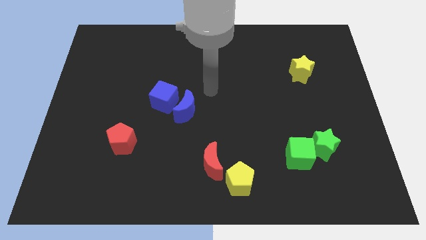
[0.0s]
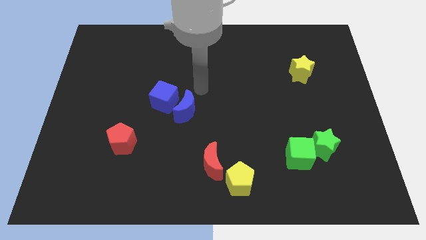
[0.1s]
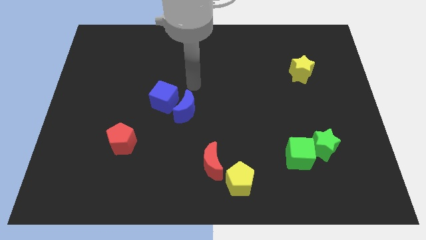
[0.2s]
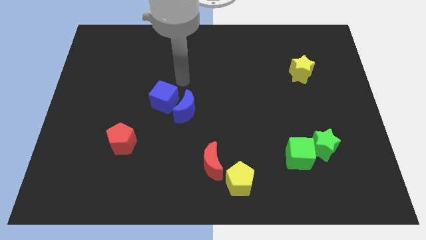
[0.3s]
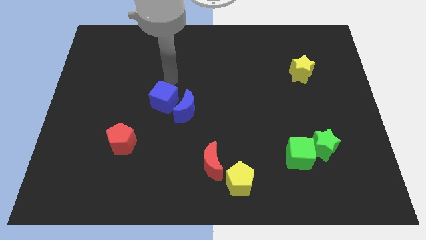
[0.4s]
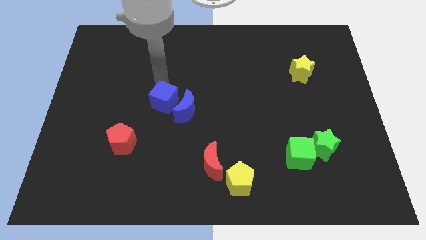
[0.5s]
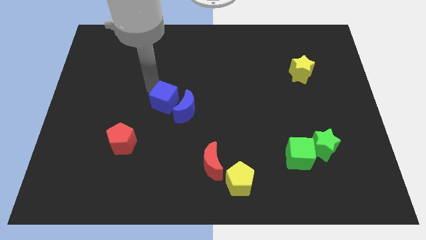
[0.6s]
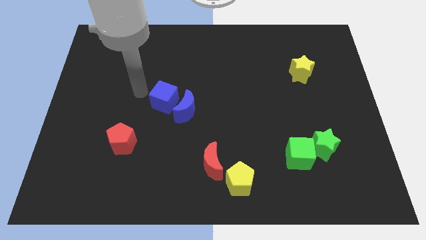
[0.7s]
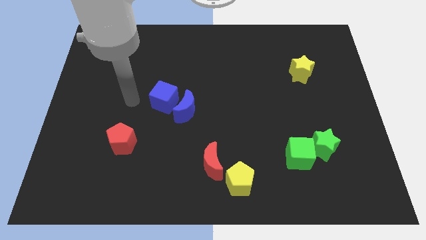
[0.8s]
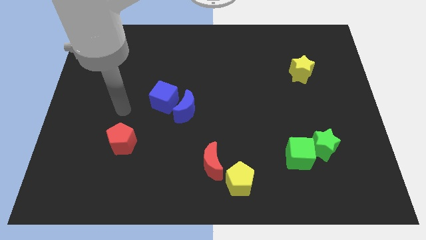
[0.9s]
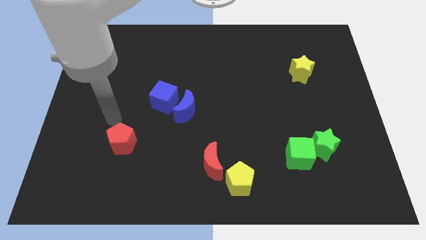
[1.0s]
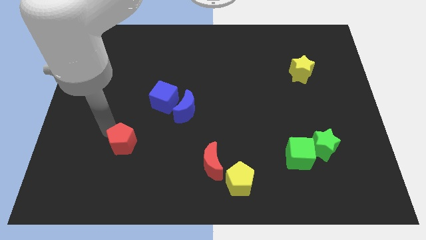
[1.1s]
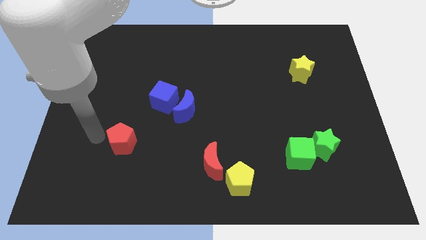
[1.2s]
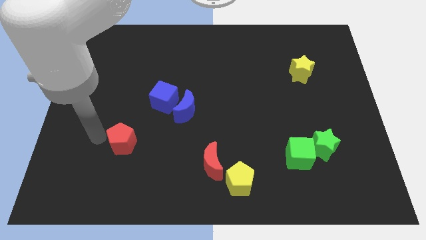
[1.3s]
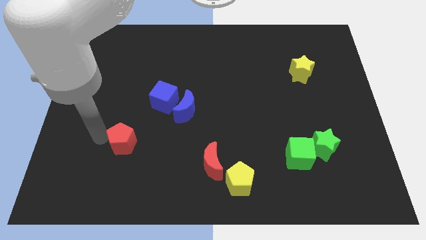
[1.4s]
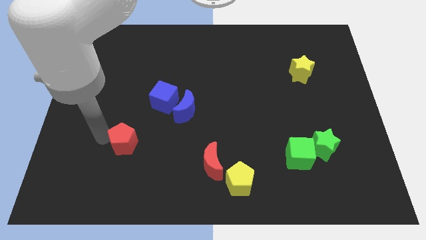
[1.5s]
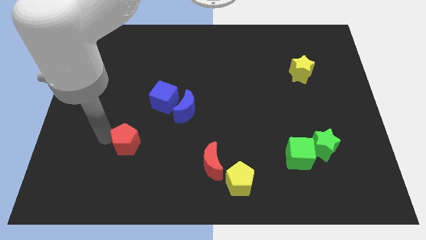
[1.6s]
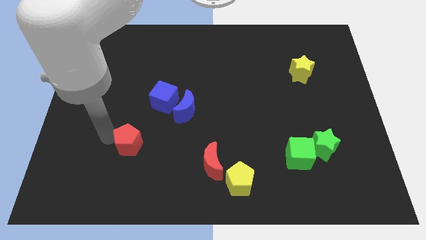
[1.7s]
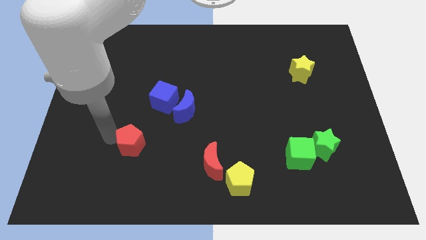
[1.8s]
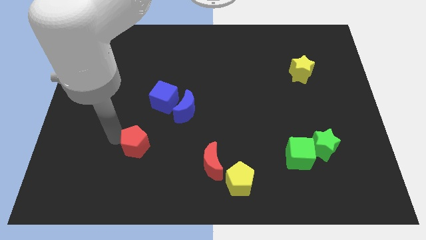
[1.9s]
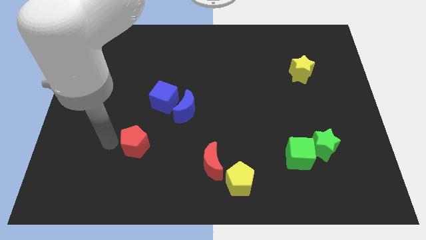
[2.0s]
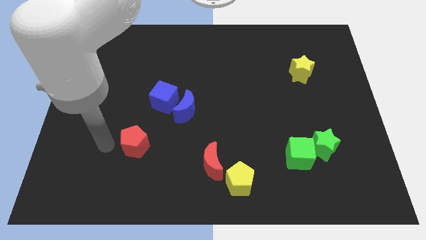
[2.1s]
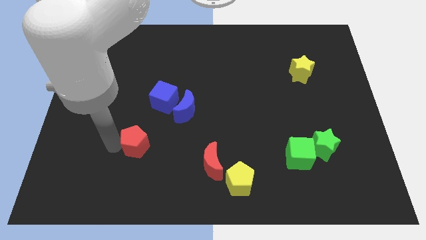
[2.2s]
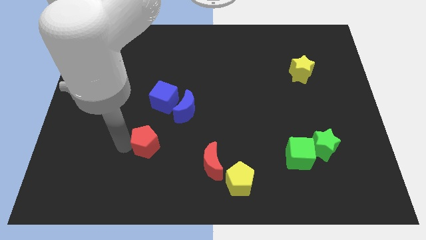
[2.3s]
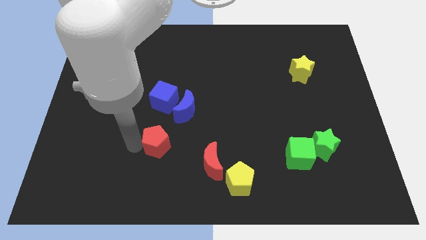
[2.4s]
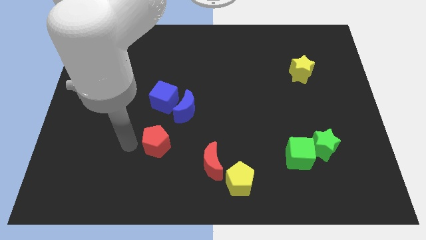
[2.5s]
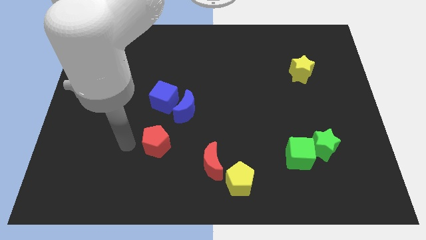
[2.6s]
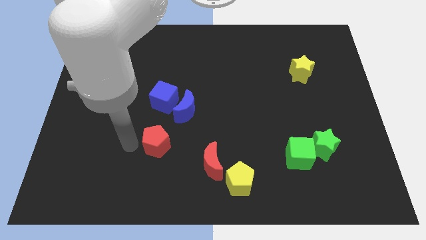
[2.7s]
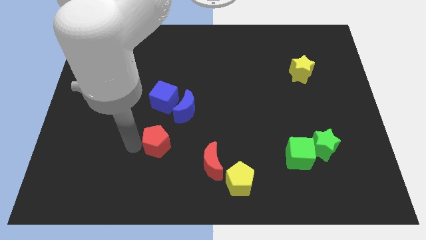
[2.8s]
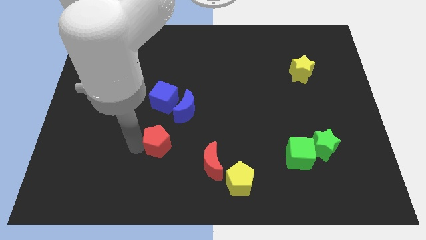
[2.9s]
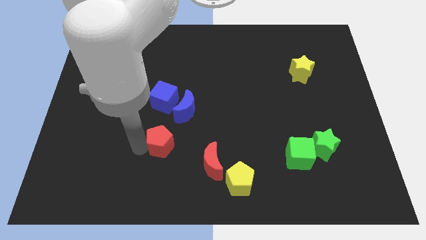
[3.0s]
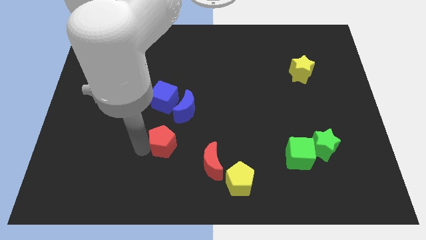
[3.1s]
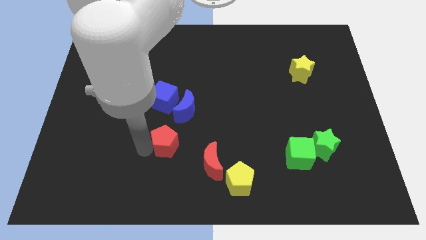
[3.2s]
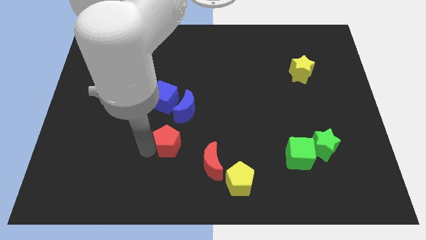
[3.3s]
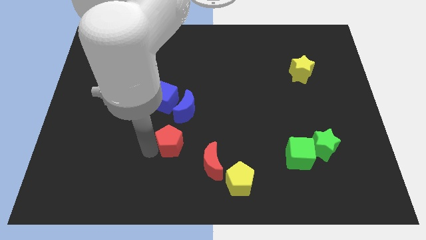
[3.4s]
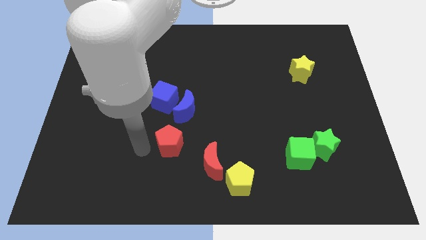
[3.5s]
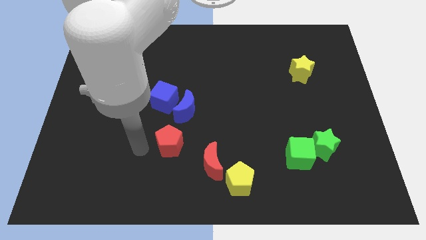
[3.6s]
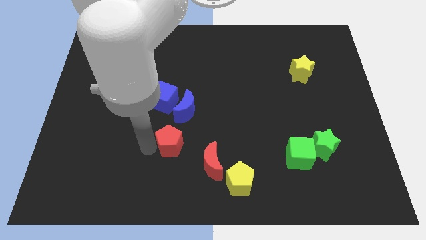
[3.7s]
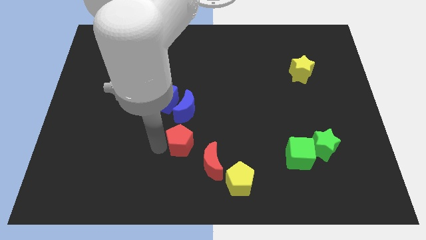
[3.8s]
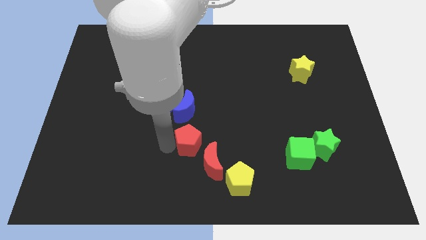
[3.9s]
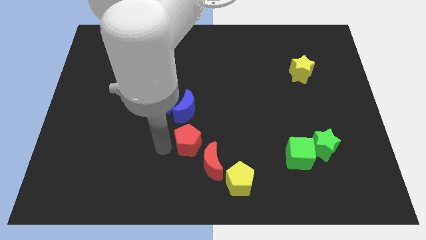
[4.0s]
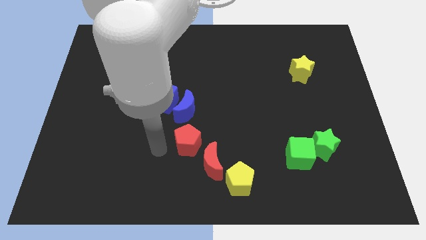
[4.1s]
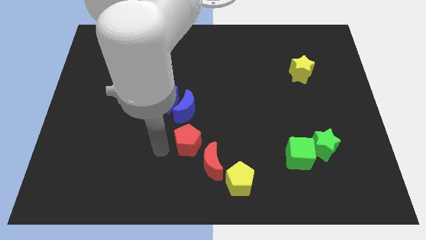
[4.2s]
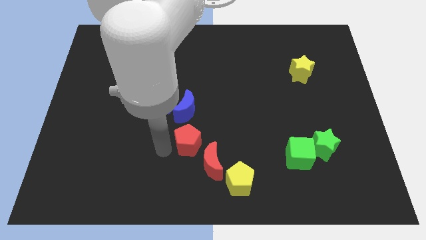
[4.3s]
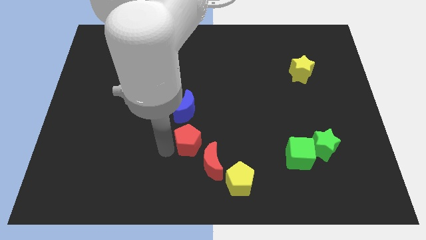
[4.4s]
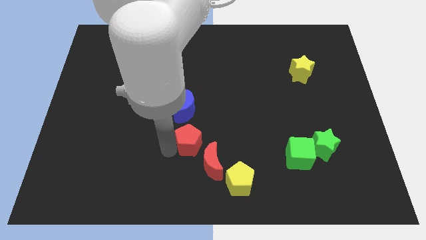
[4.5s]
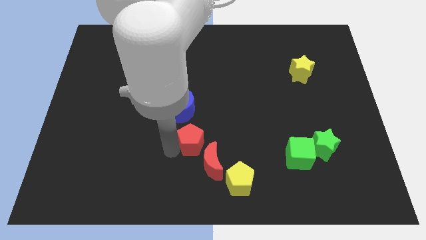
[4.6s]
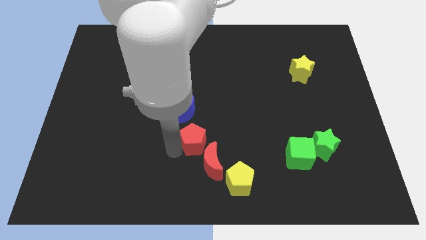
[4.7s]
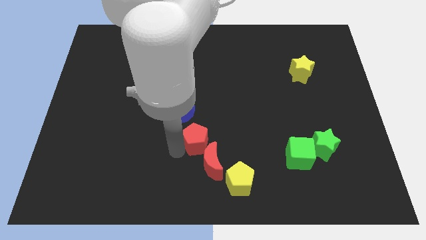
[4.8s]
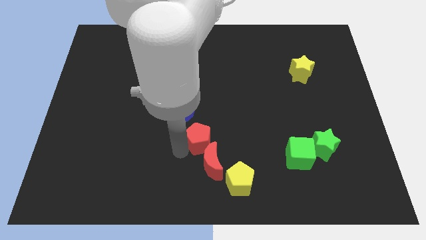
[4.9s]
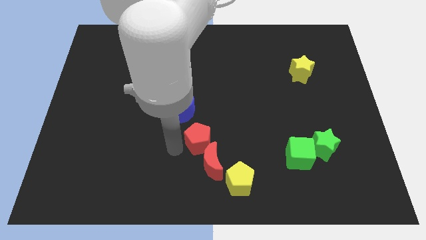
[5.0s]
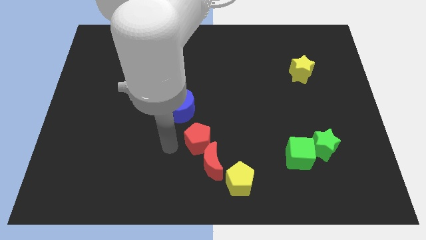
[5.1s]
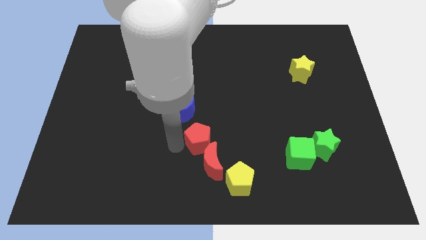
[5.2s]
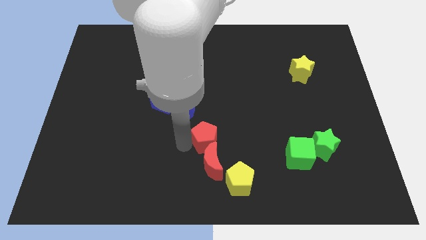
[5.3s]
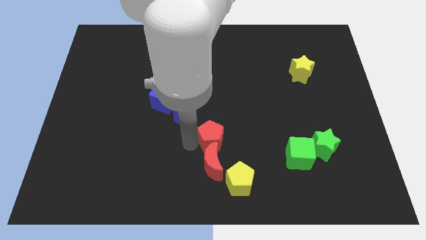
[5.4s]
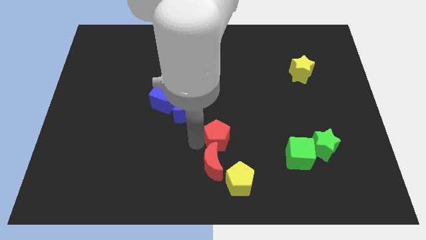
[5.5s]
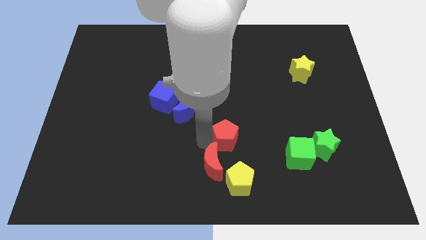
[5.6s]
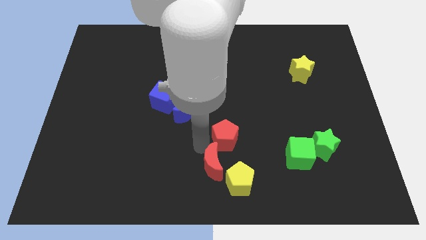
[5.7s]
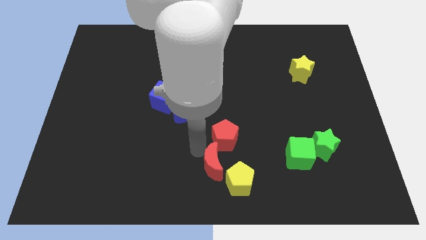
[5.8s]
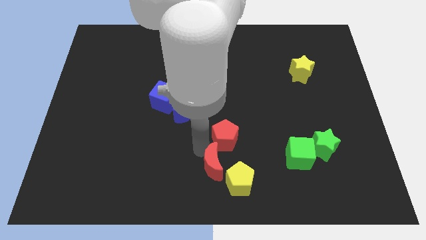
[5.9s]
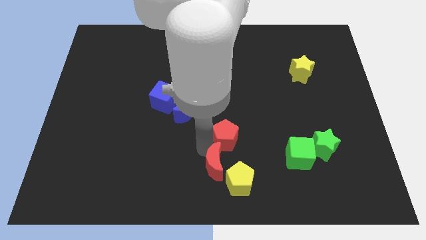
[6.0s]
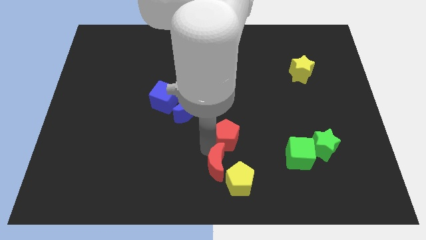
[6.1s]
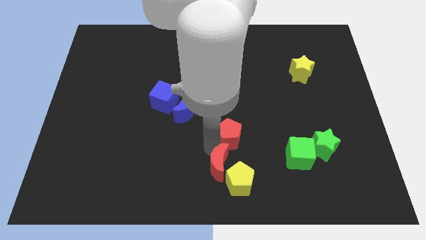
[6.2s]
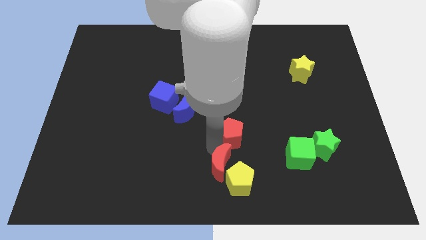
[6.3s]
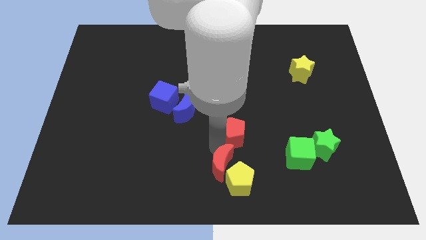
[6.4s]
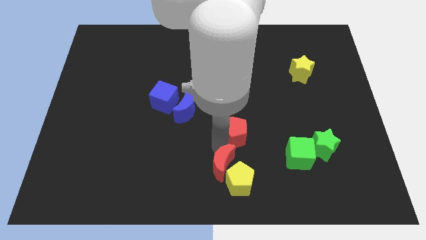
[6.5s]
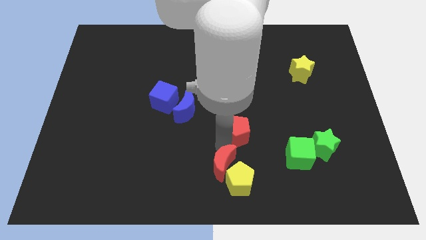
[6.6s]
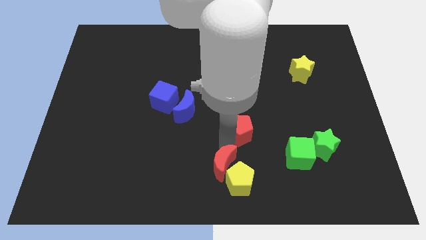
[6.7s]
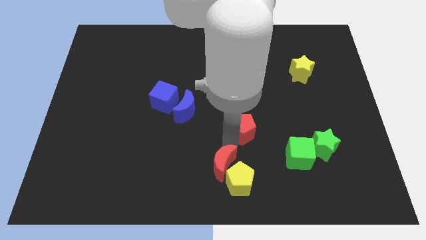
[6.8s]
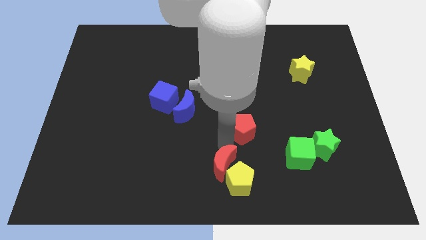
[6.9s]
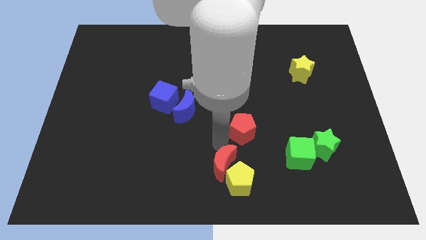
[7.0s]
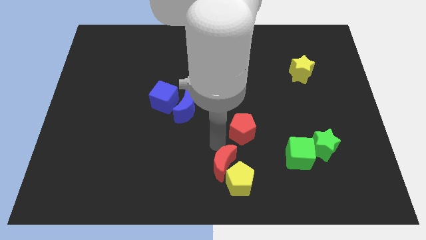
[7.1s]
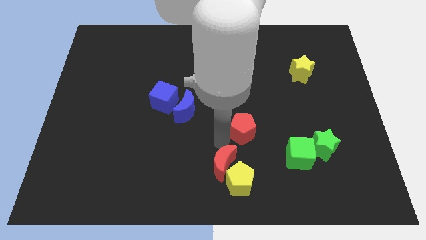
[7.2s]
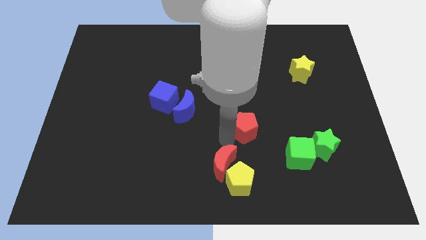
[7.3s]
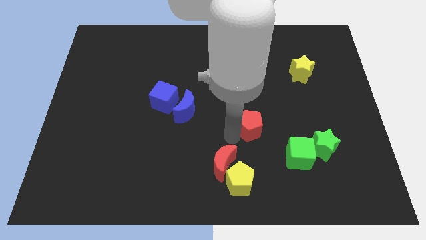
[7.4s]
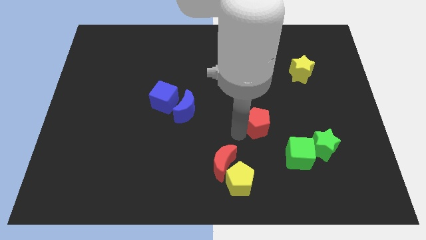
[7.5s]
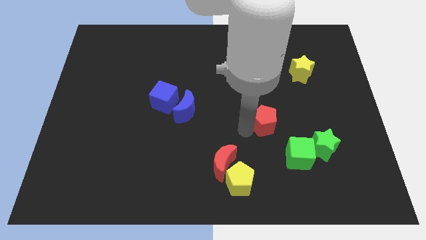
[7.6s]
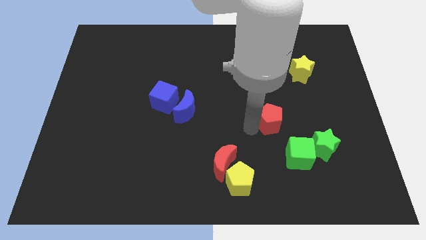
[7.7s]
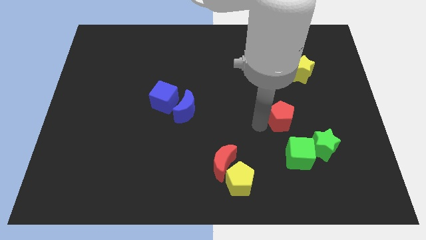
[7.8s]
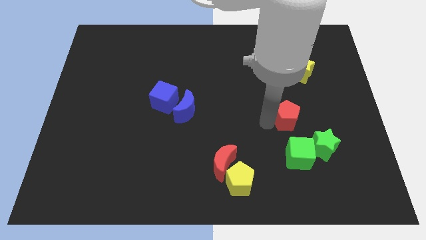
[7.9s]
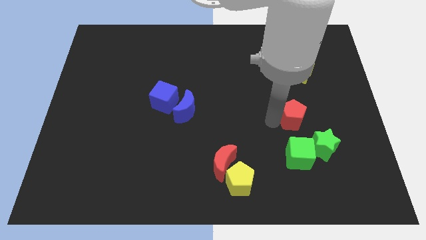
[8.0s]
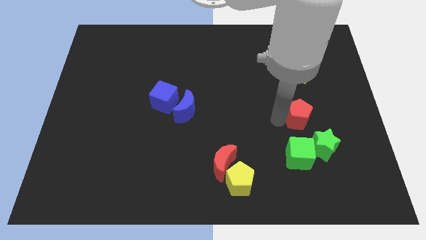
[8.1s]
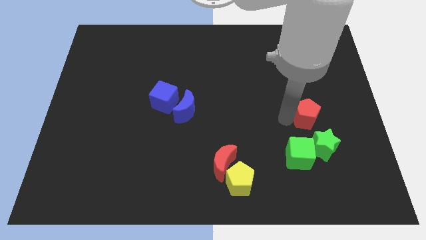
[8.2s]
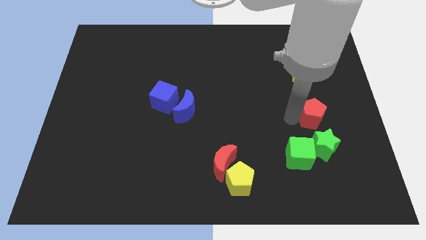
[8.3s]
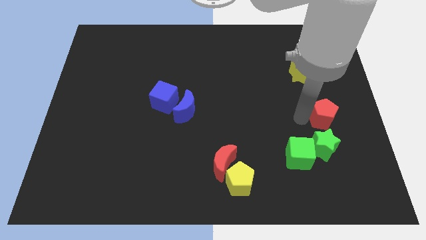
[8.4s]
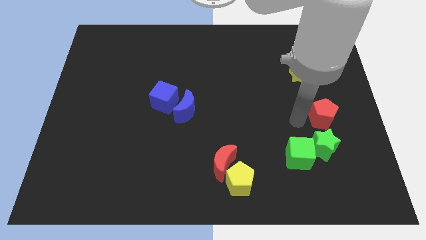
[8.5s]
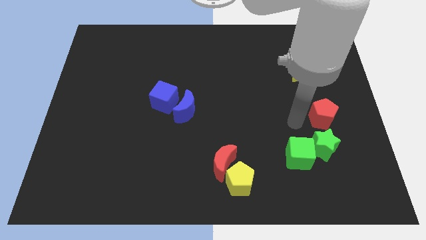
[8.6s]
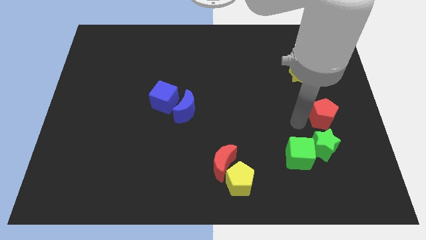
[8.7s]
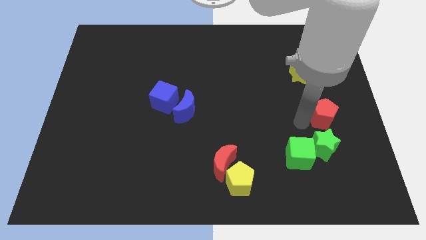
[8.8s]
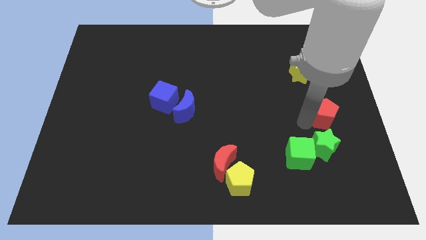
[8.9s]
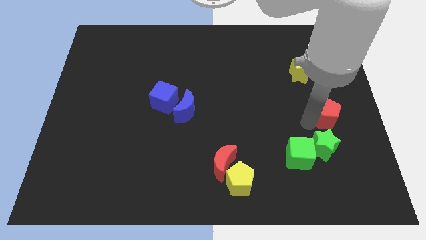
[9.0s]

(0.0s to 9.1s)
push the red pentagon to the center right
